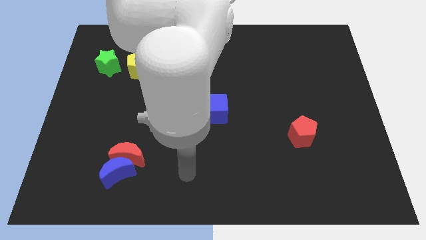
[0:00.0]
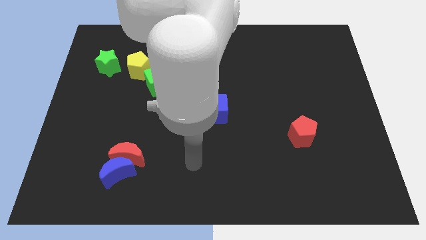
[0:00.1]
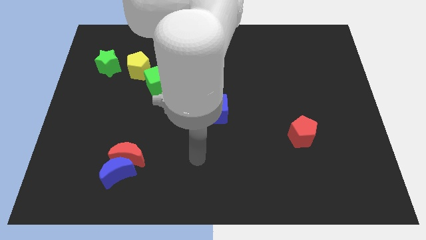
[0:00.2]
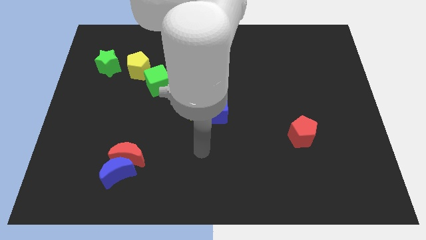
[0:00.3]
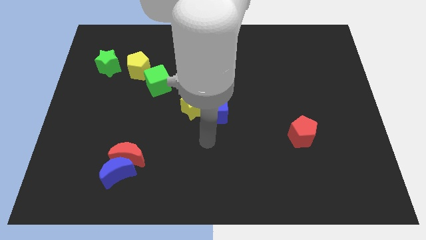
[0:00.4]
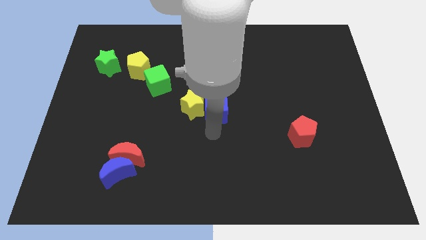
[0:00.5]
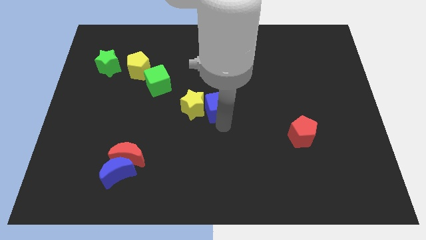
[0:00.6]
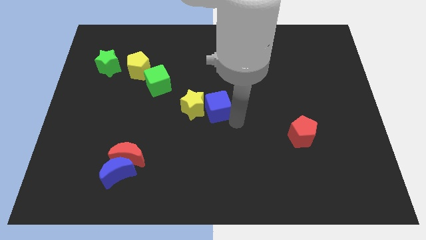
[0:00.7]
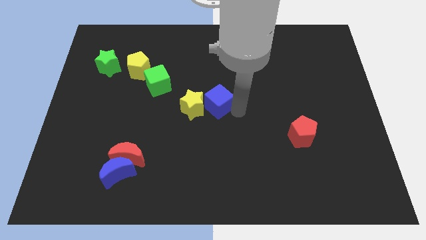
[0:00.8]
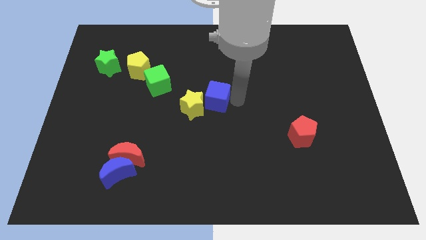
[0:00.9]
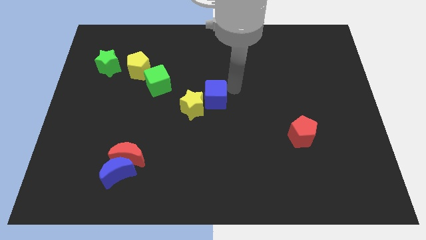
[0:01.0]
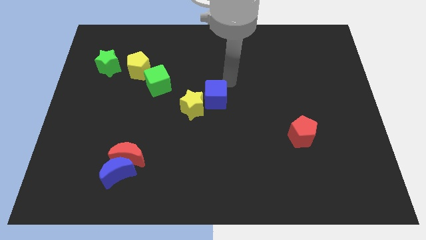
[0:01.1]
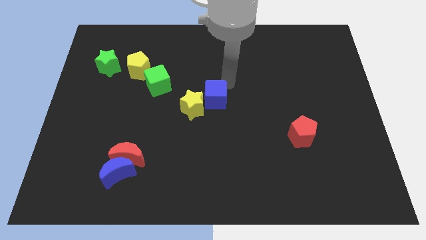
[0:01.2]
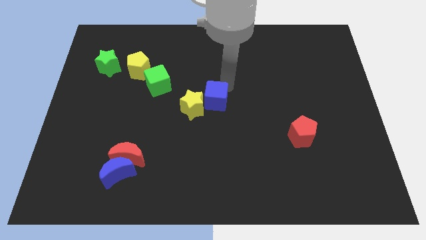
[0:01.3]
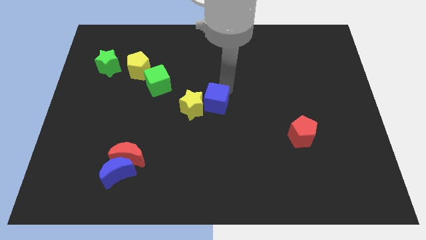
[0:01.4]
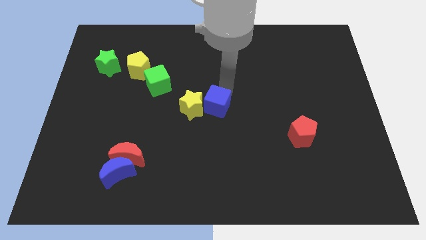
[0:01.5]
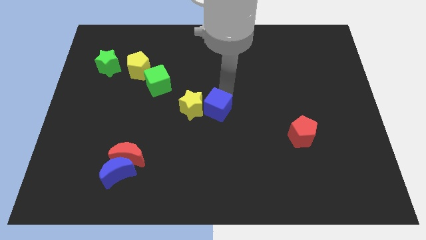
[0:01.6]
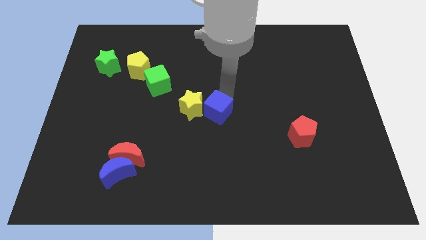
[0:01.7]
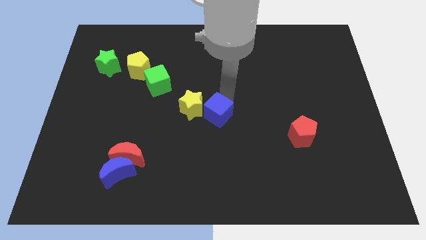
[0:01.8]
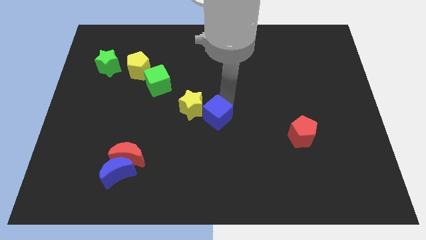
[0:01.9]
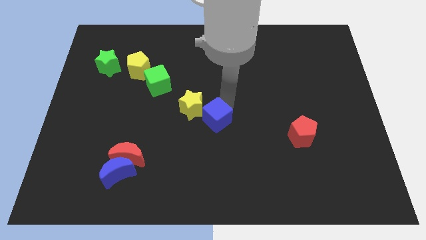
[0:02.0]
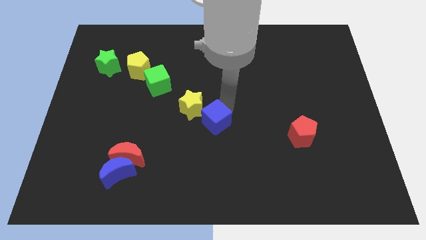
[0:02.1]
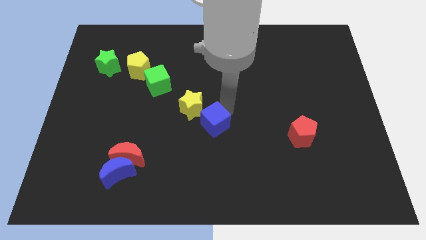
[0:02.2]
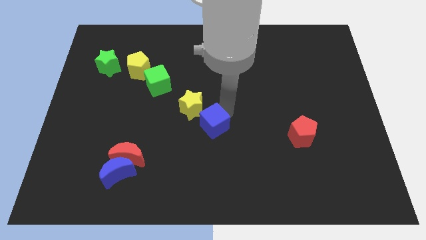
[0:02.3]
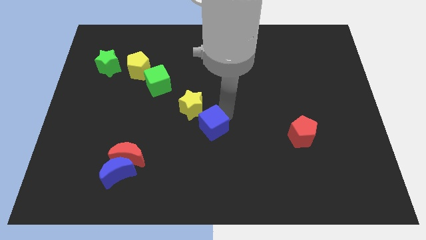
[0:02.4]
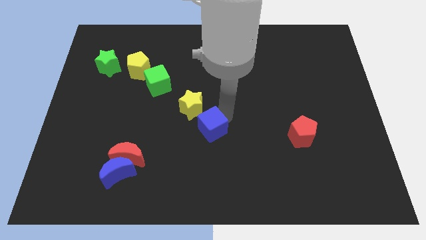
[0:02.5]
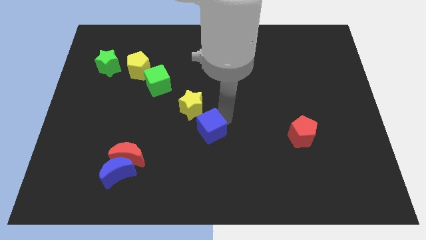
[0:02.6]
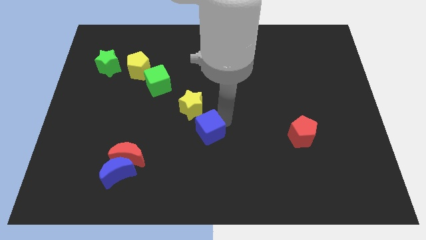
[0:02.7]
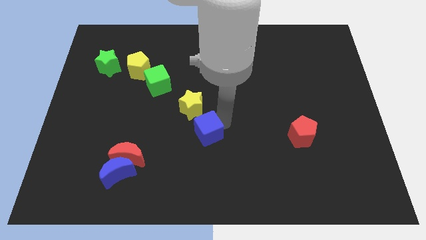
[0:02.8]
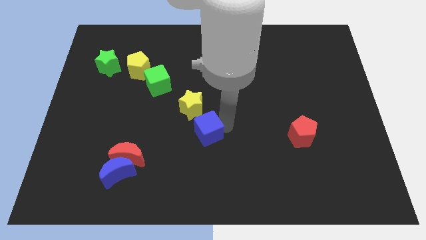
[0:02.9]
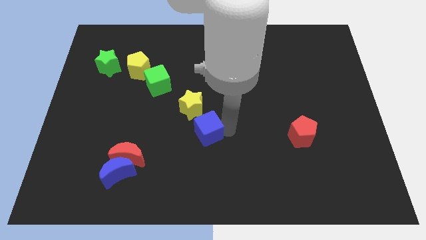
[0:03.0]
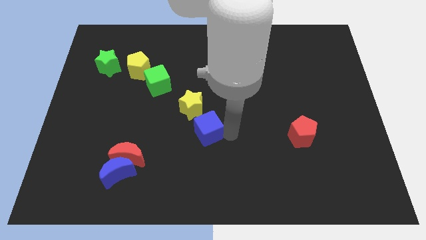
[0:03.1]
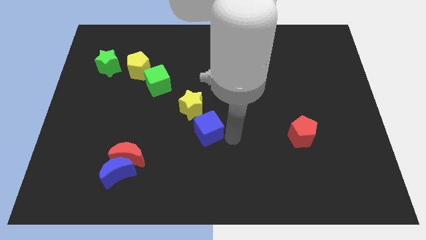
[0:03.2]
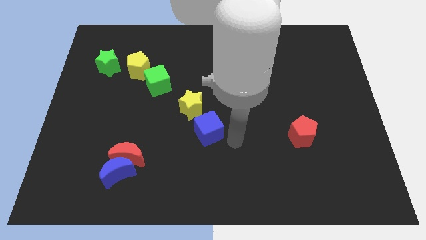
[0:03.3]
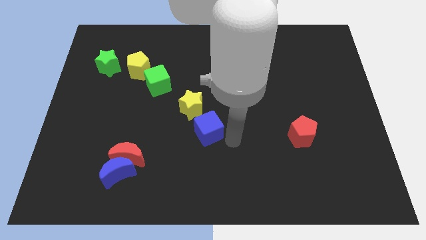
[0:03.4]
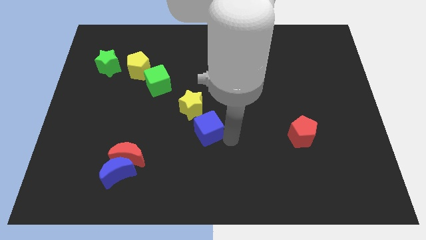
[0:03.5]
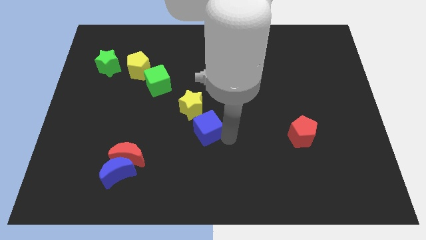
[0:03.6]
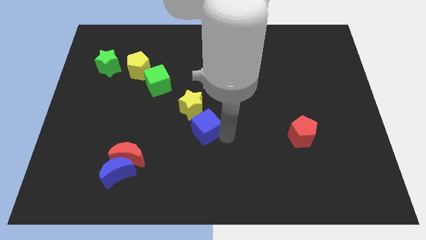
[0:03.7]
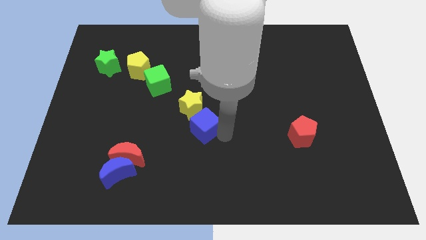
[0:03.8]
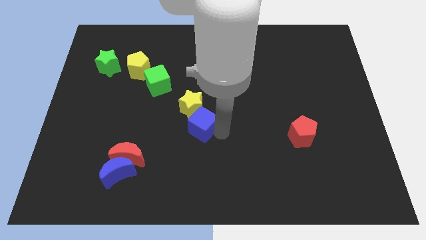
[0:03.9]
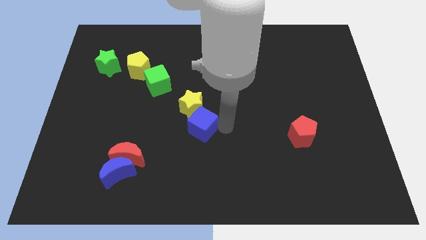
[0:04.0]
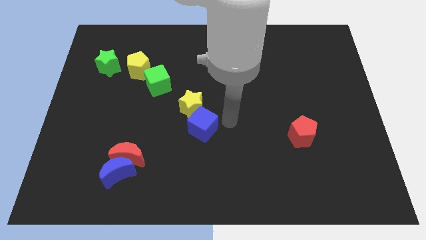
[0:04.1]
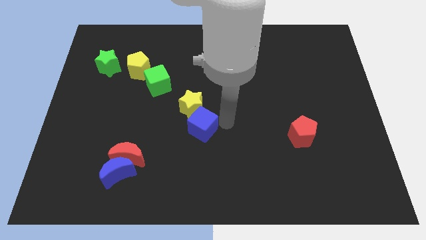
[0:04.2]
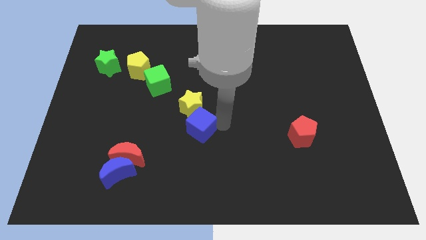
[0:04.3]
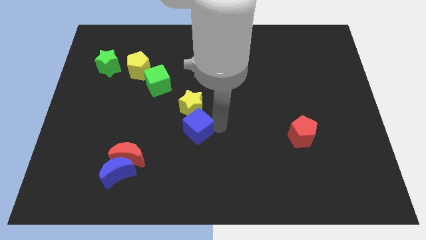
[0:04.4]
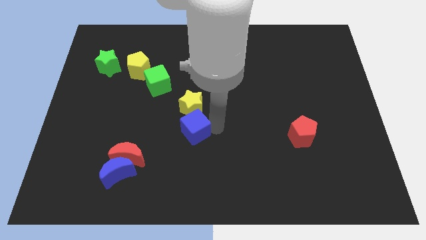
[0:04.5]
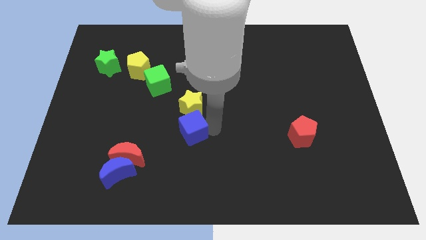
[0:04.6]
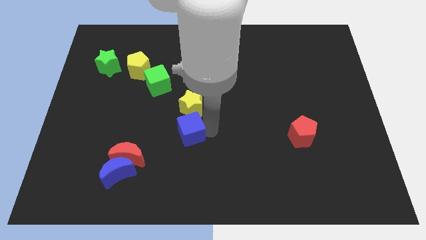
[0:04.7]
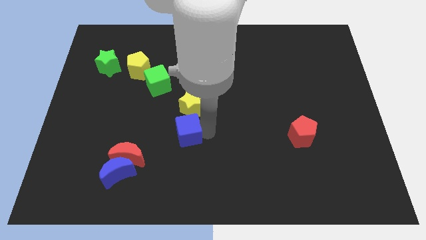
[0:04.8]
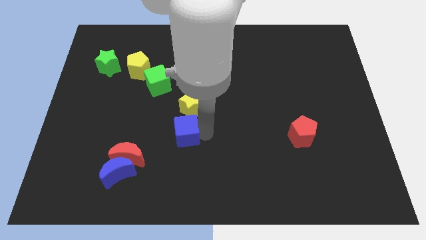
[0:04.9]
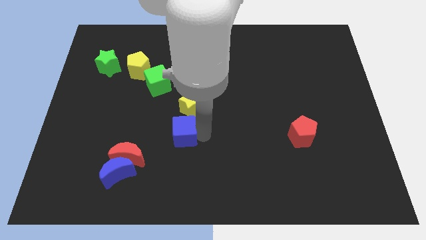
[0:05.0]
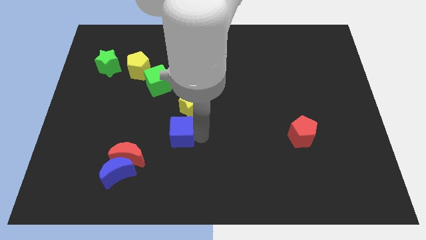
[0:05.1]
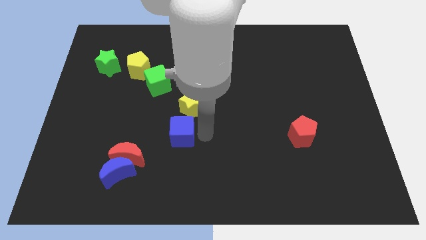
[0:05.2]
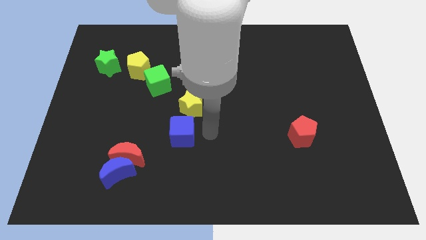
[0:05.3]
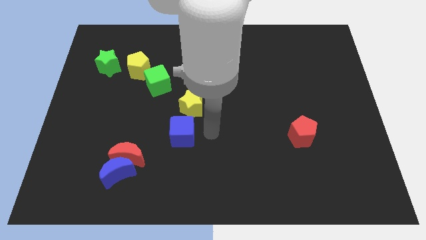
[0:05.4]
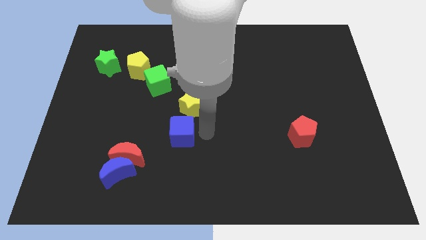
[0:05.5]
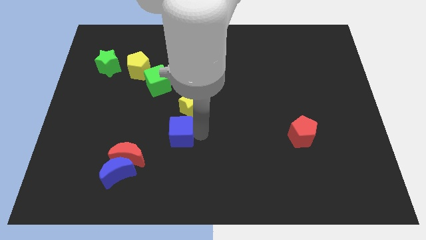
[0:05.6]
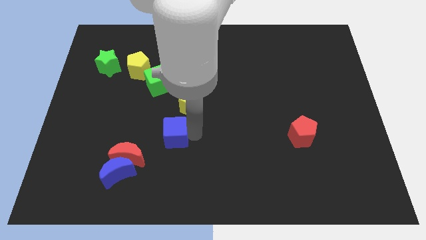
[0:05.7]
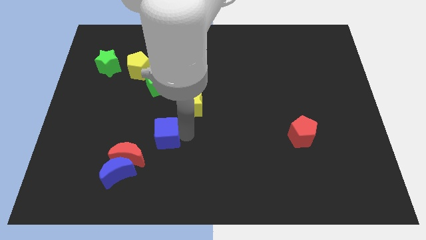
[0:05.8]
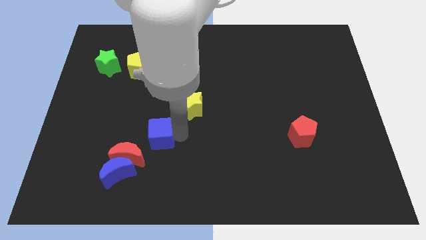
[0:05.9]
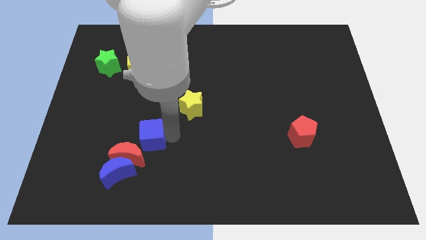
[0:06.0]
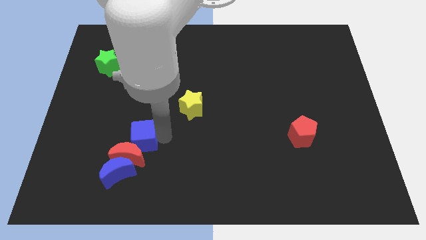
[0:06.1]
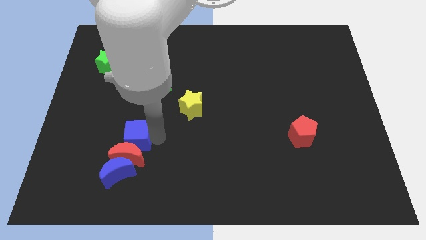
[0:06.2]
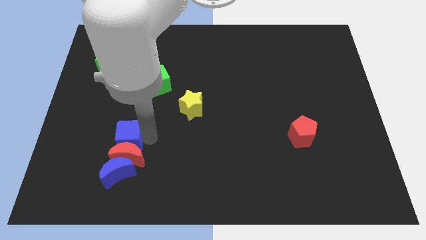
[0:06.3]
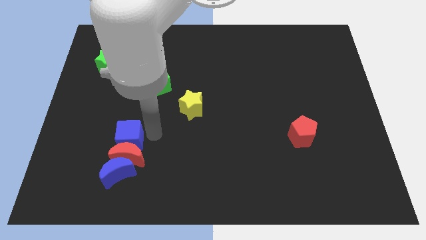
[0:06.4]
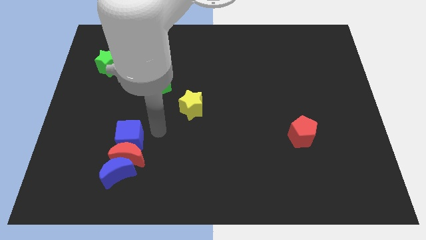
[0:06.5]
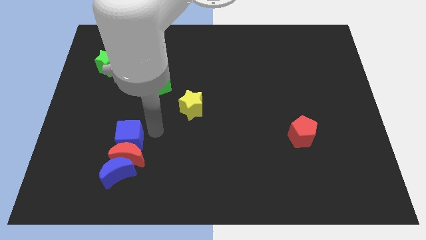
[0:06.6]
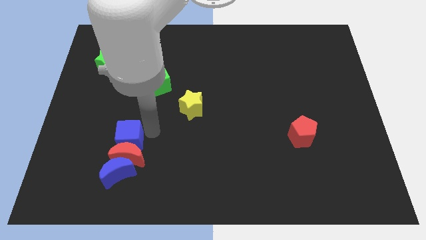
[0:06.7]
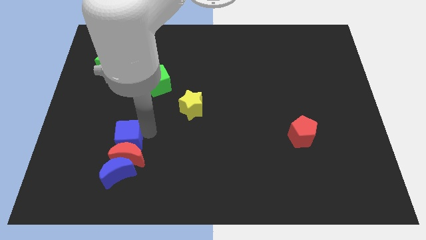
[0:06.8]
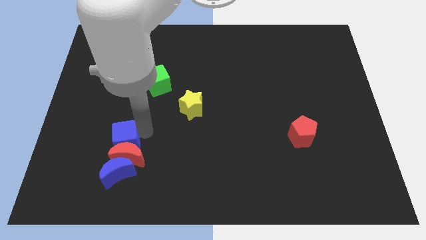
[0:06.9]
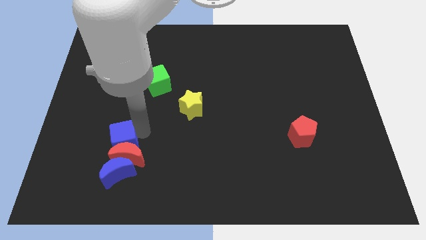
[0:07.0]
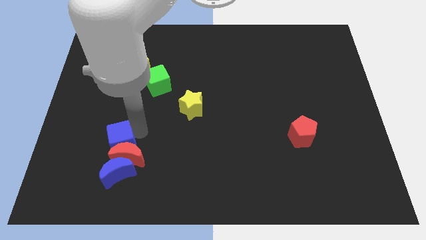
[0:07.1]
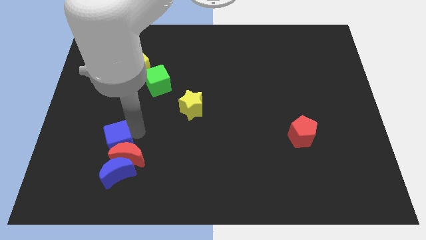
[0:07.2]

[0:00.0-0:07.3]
move the blue cube left of the red moon
